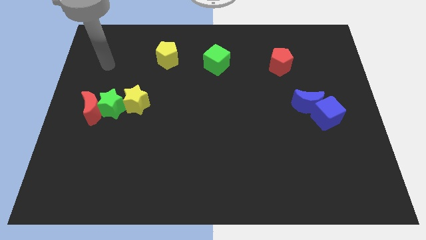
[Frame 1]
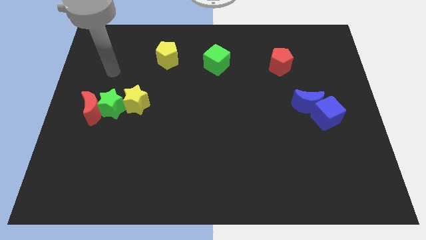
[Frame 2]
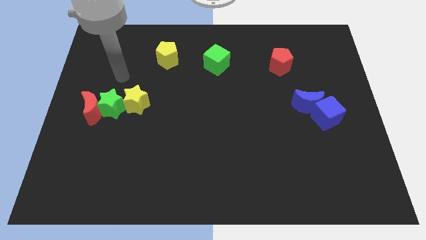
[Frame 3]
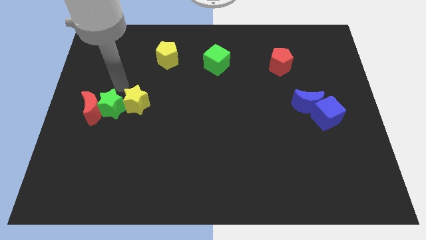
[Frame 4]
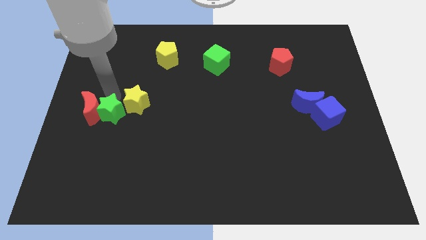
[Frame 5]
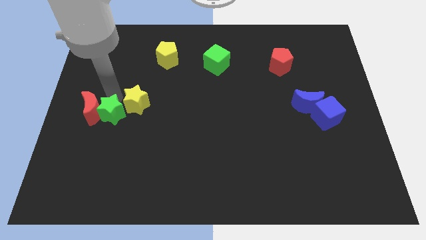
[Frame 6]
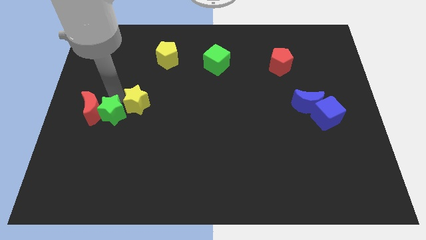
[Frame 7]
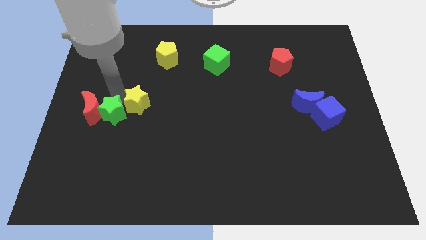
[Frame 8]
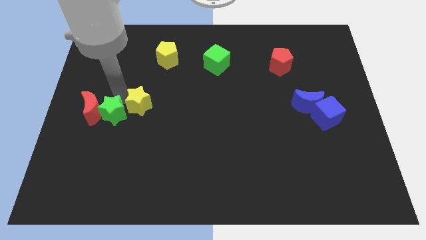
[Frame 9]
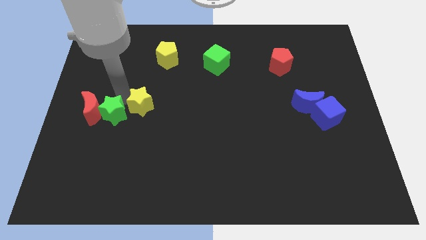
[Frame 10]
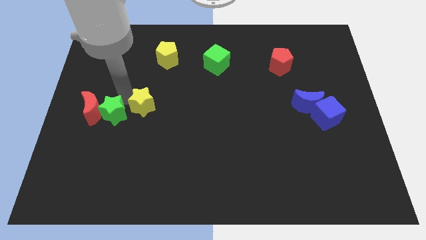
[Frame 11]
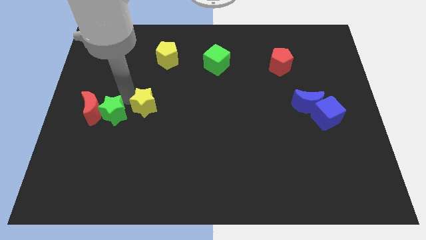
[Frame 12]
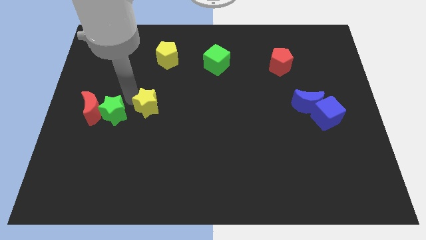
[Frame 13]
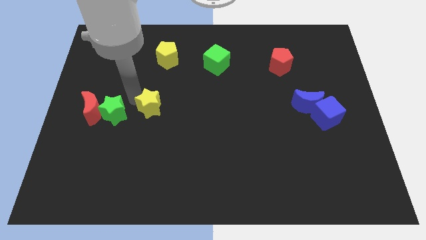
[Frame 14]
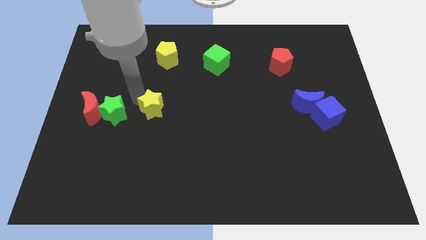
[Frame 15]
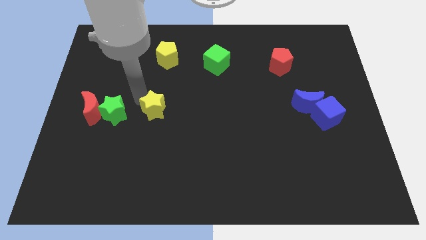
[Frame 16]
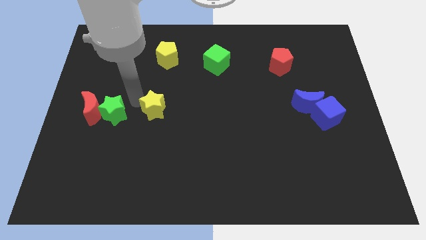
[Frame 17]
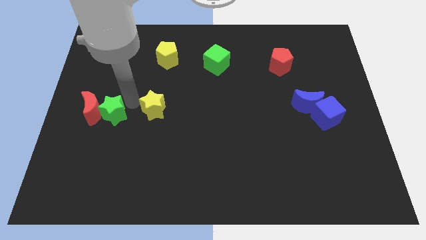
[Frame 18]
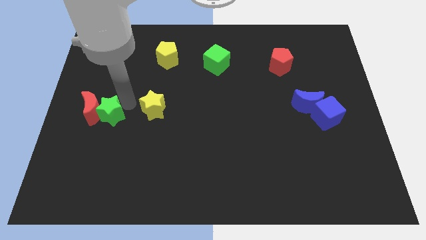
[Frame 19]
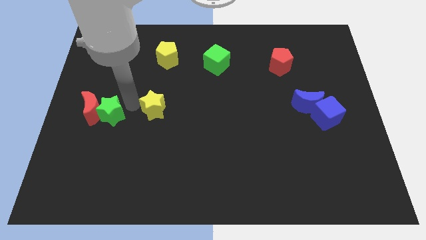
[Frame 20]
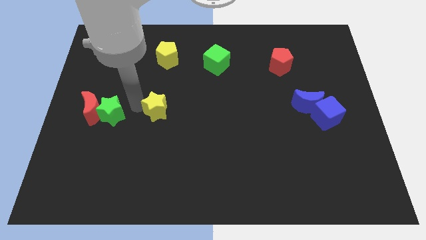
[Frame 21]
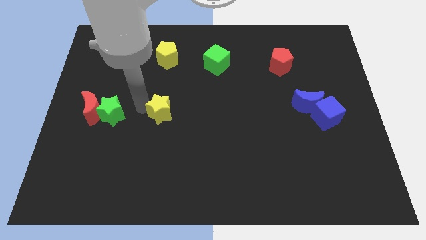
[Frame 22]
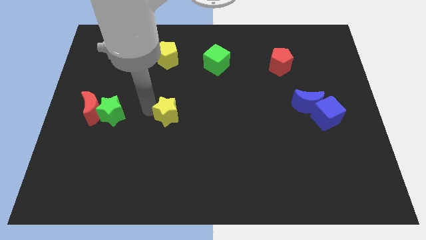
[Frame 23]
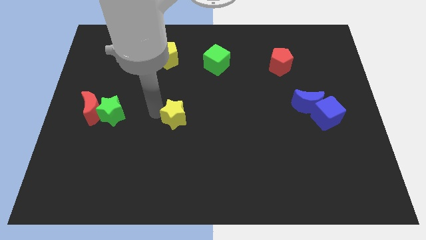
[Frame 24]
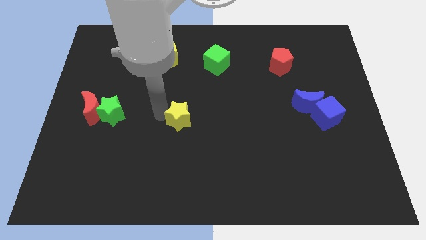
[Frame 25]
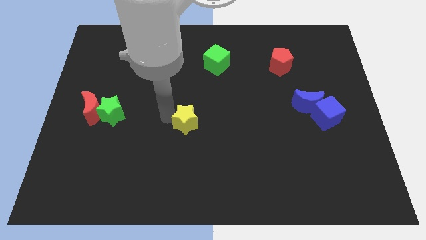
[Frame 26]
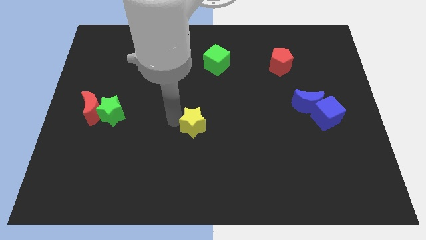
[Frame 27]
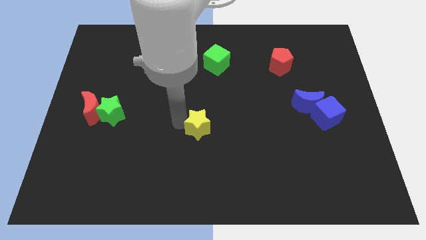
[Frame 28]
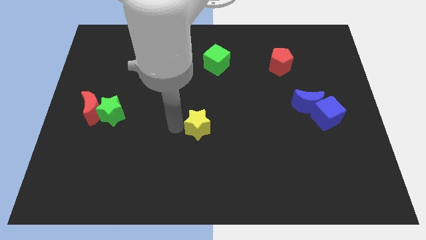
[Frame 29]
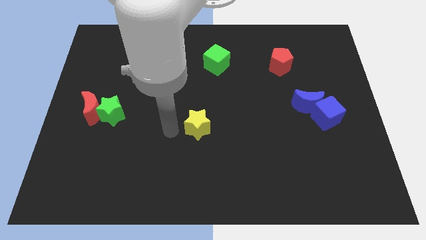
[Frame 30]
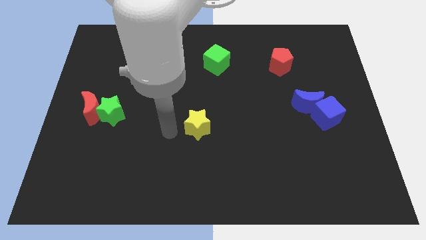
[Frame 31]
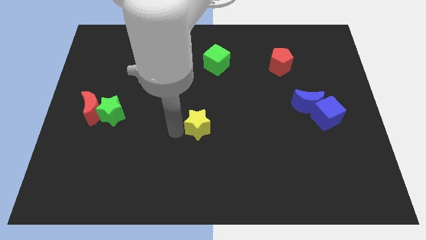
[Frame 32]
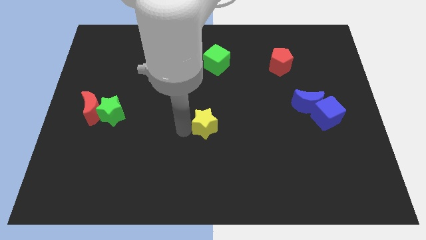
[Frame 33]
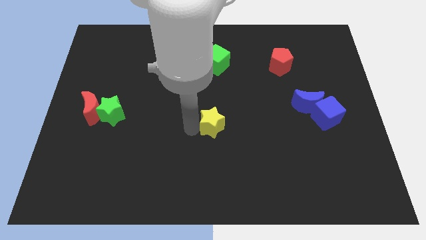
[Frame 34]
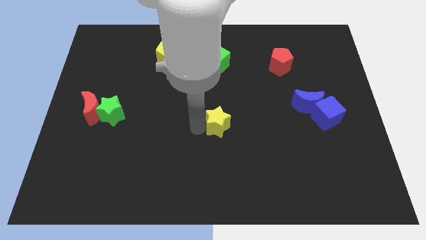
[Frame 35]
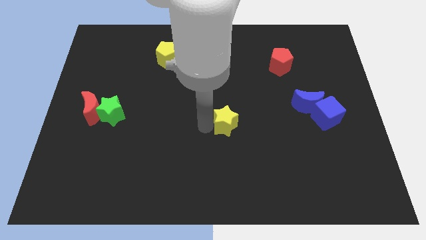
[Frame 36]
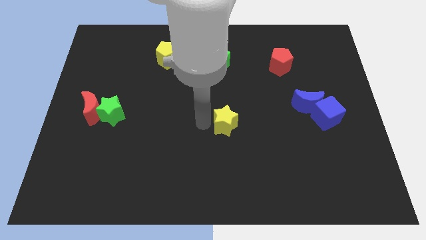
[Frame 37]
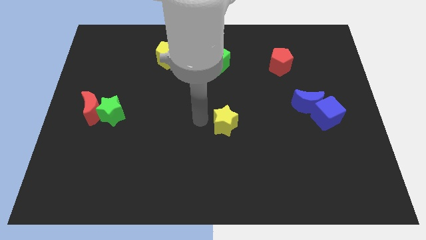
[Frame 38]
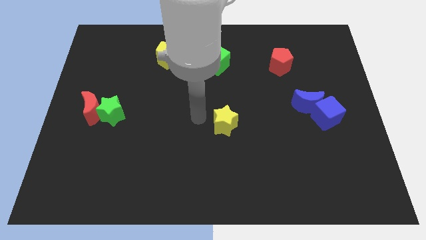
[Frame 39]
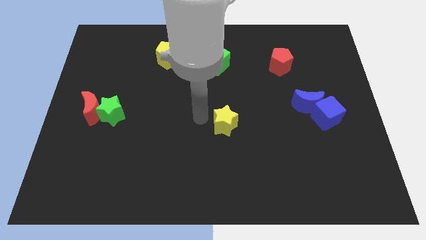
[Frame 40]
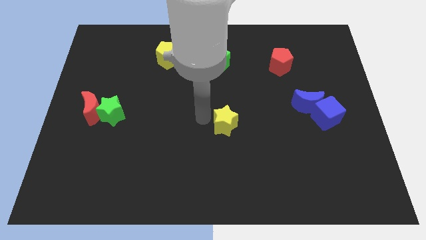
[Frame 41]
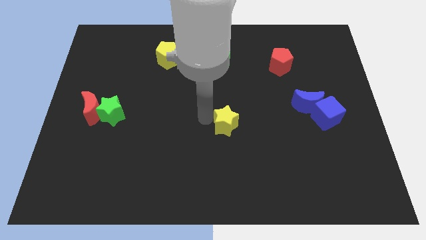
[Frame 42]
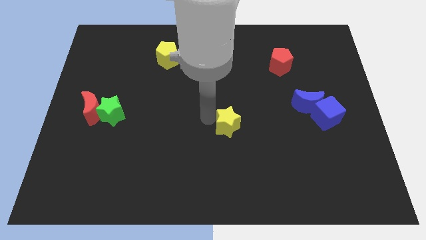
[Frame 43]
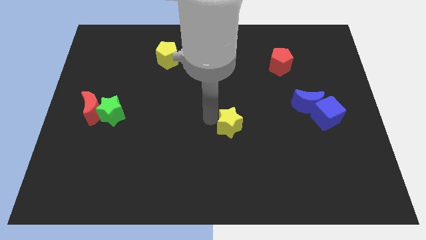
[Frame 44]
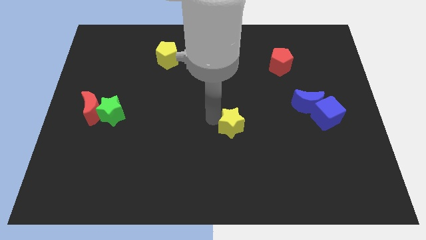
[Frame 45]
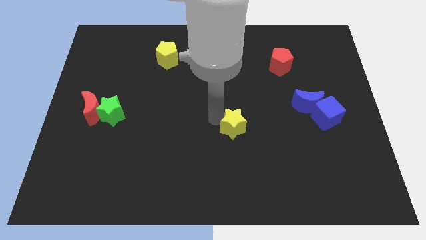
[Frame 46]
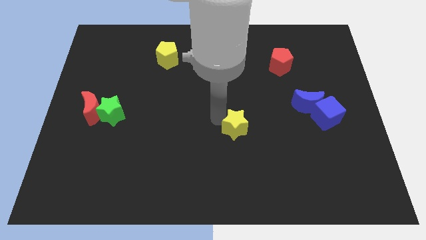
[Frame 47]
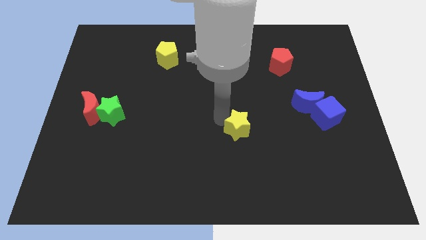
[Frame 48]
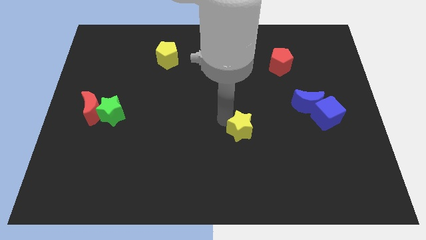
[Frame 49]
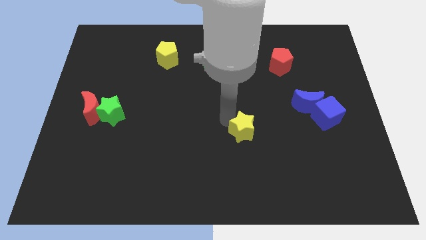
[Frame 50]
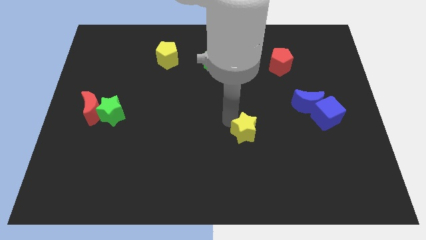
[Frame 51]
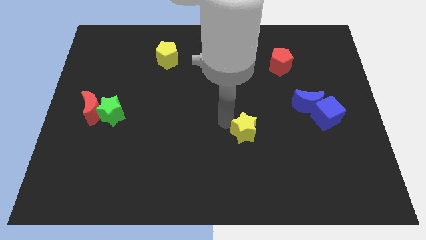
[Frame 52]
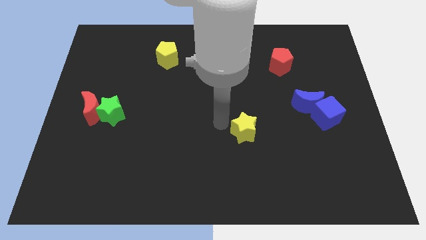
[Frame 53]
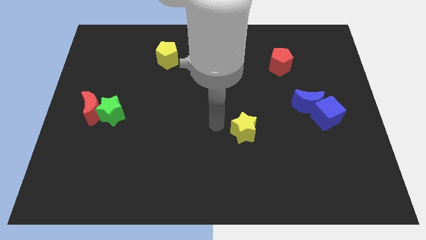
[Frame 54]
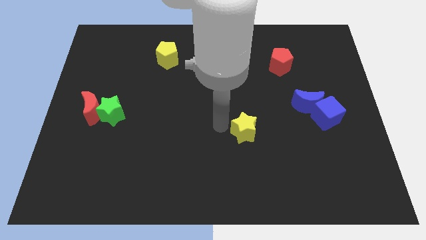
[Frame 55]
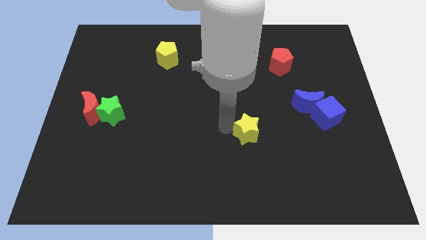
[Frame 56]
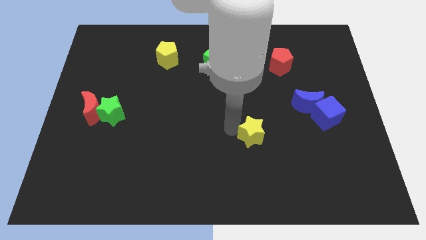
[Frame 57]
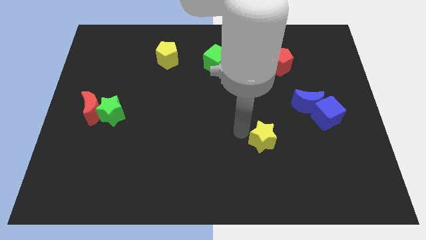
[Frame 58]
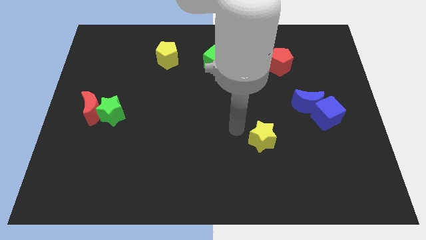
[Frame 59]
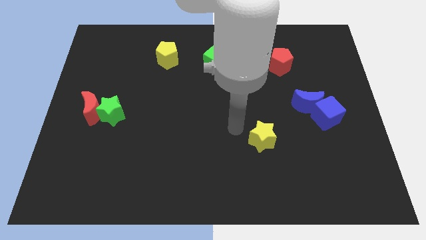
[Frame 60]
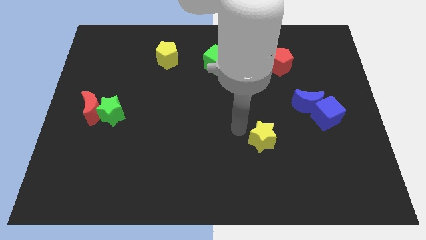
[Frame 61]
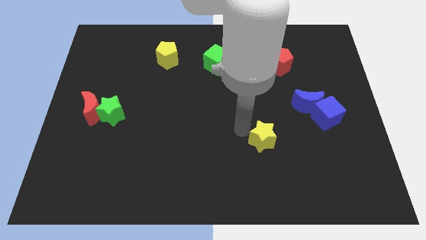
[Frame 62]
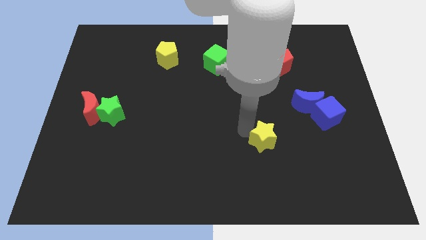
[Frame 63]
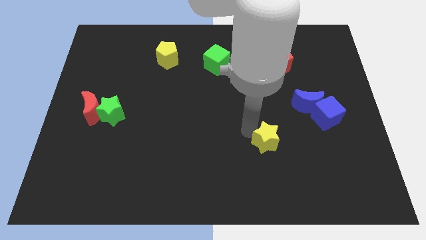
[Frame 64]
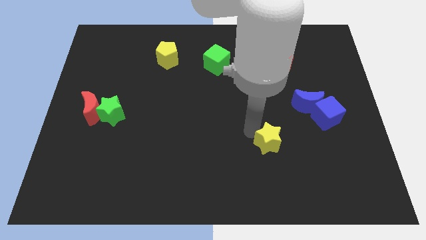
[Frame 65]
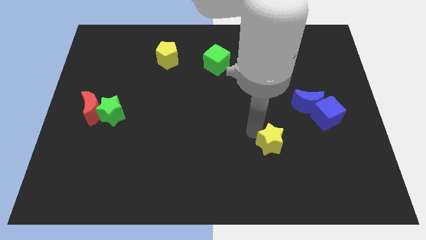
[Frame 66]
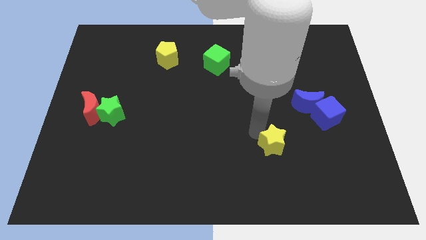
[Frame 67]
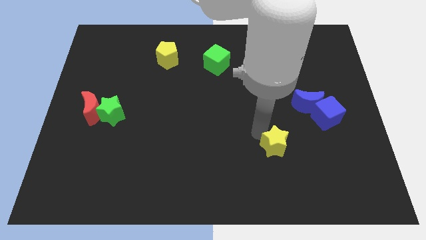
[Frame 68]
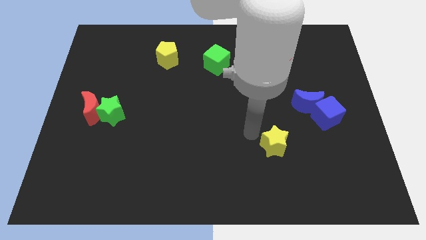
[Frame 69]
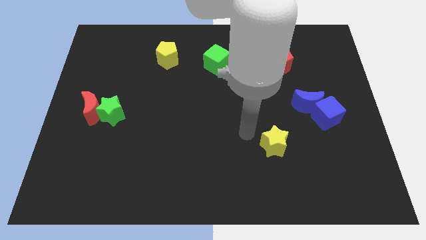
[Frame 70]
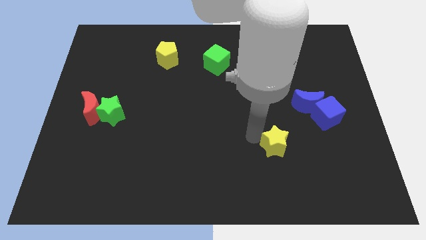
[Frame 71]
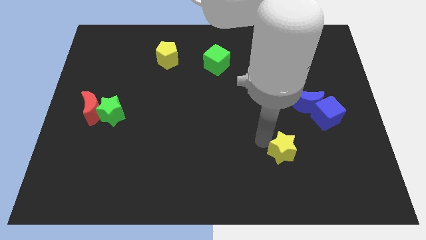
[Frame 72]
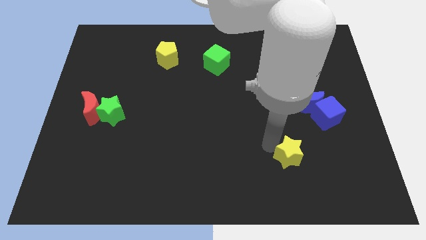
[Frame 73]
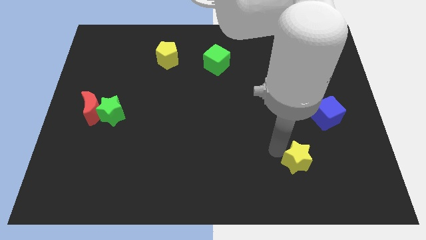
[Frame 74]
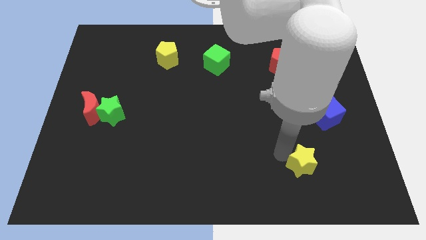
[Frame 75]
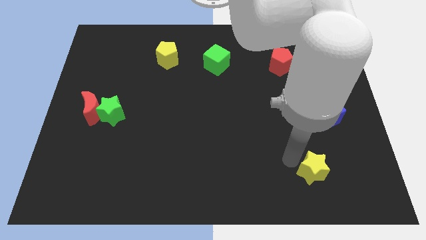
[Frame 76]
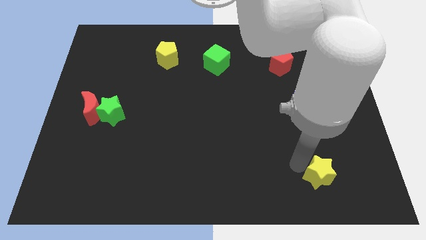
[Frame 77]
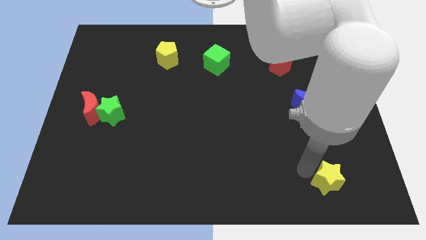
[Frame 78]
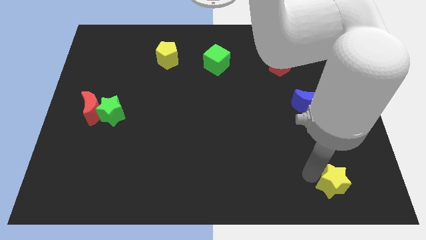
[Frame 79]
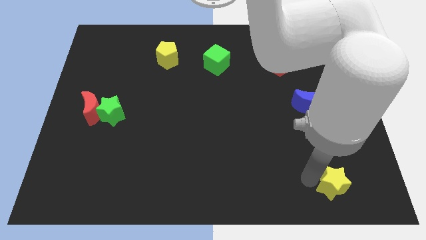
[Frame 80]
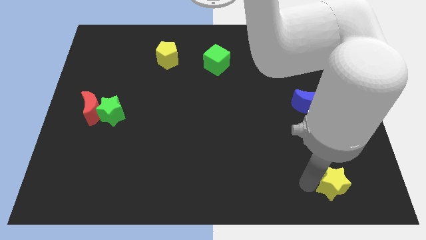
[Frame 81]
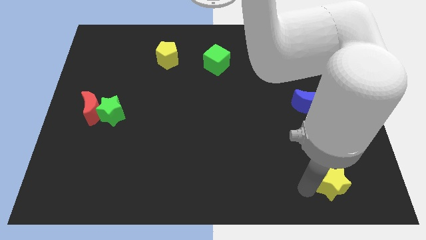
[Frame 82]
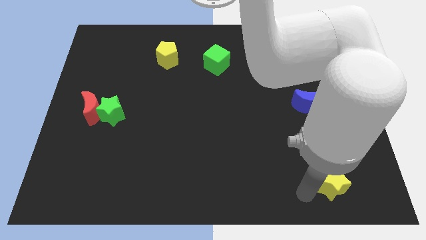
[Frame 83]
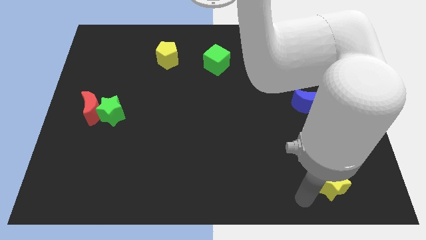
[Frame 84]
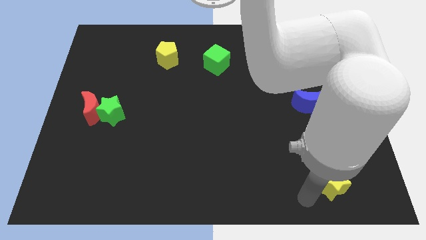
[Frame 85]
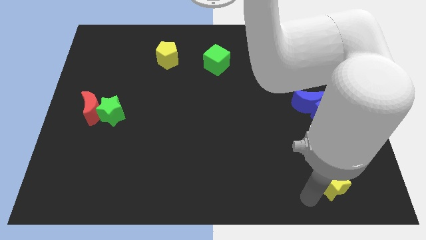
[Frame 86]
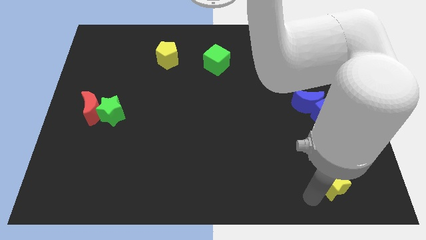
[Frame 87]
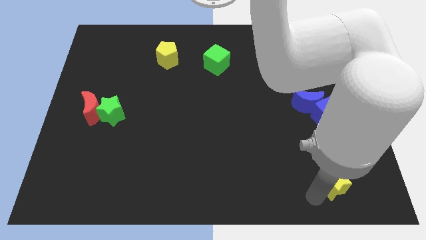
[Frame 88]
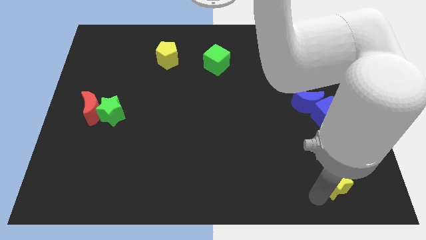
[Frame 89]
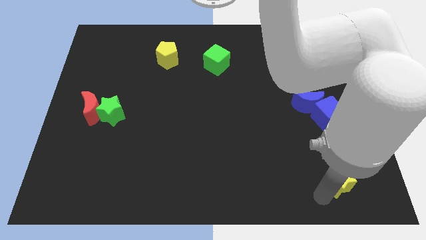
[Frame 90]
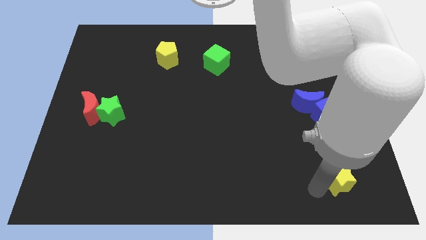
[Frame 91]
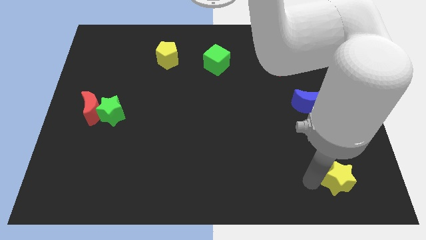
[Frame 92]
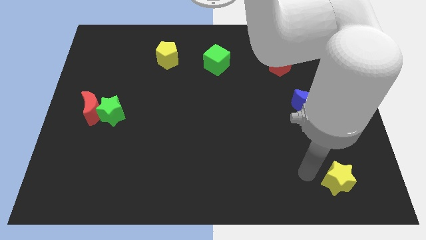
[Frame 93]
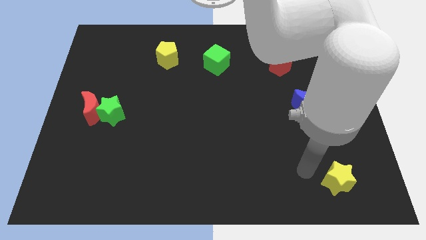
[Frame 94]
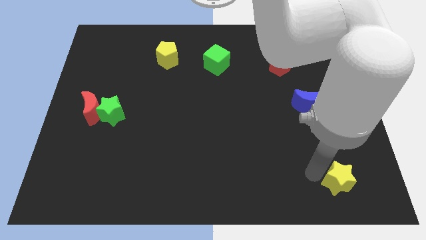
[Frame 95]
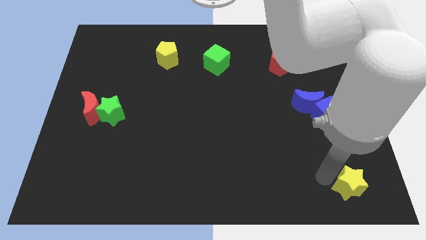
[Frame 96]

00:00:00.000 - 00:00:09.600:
move the yellow star to the bottom right of the board
